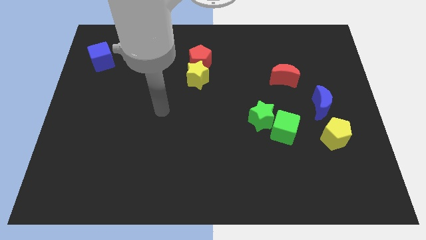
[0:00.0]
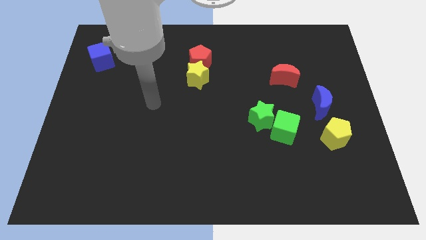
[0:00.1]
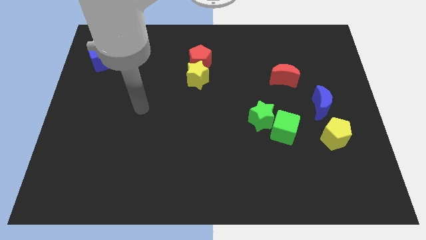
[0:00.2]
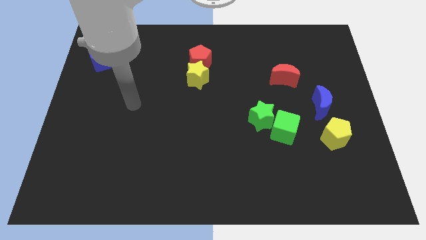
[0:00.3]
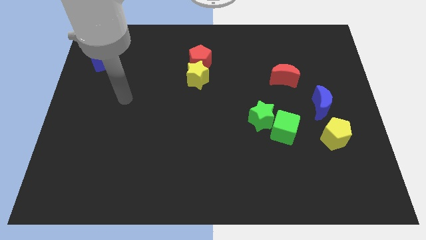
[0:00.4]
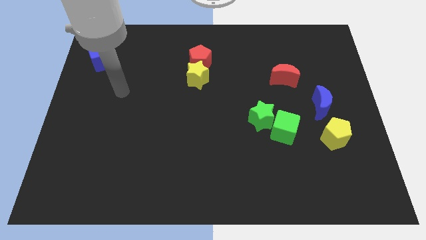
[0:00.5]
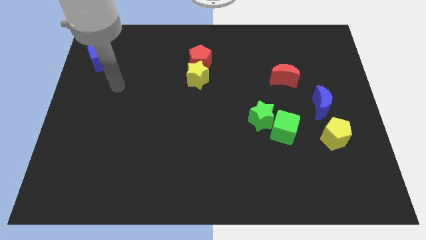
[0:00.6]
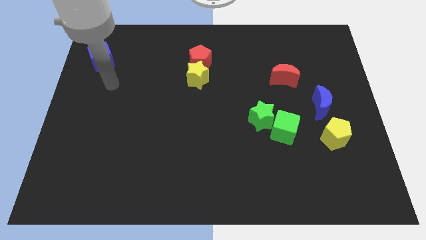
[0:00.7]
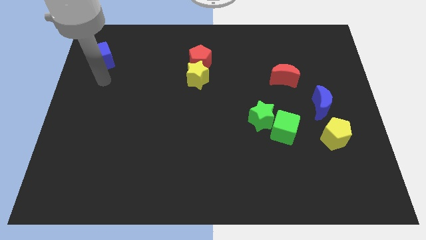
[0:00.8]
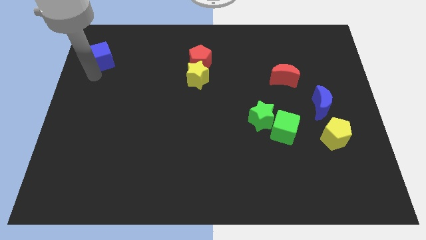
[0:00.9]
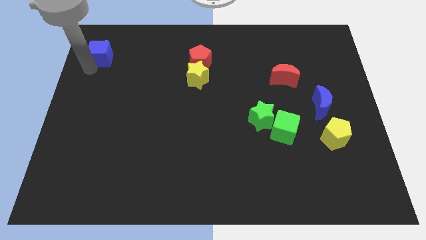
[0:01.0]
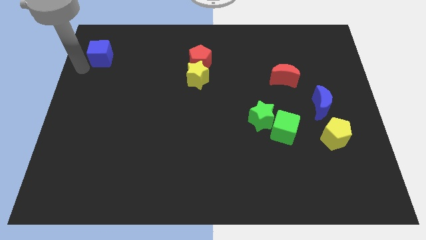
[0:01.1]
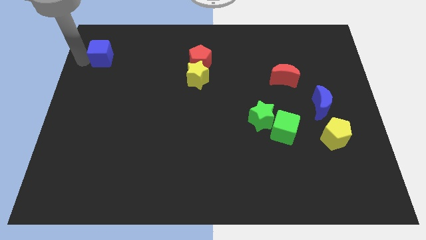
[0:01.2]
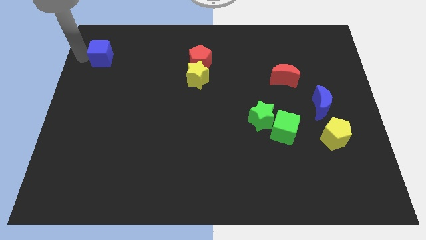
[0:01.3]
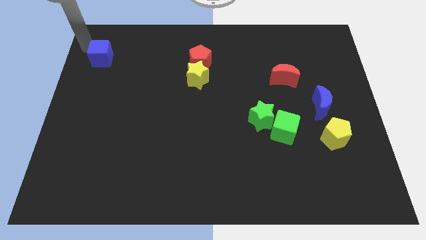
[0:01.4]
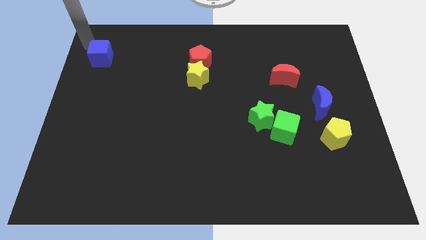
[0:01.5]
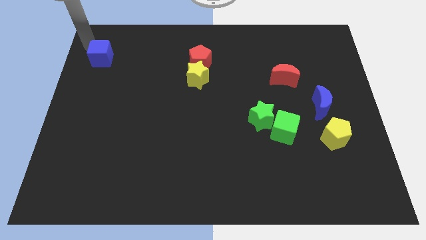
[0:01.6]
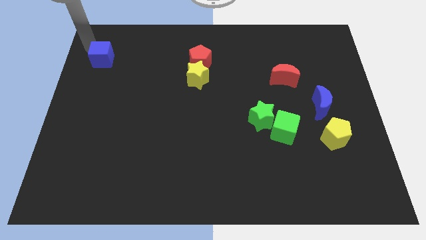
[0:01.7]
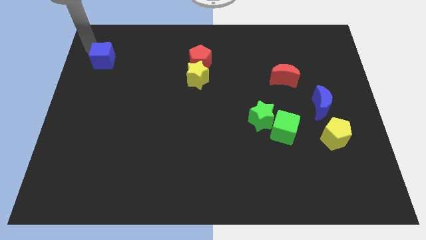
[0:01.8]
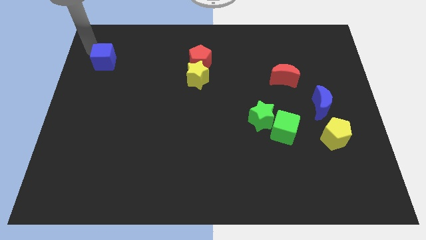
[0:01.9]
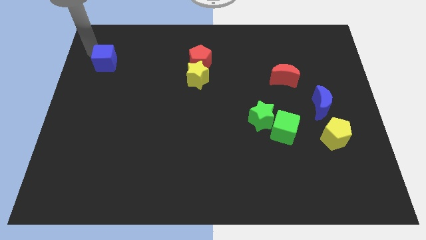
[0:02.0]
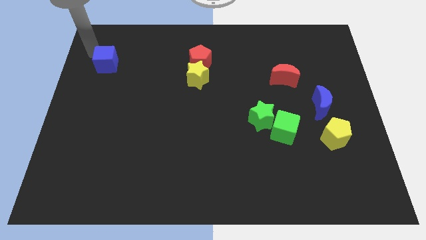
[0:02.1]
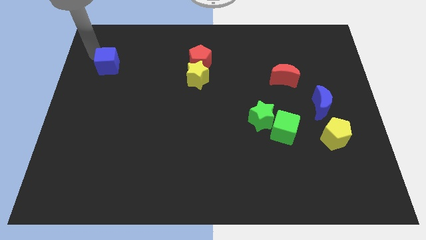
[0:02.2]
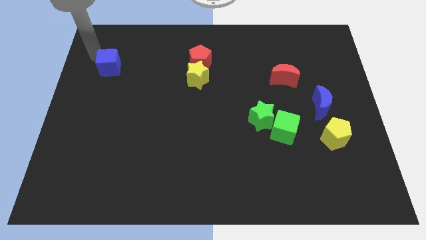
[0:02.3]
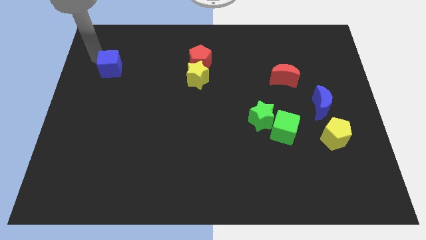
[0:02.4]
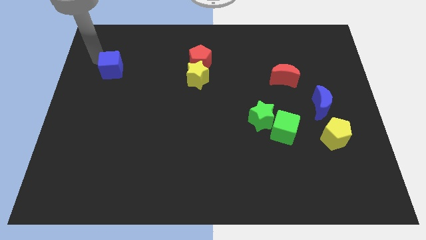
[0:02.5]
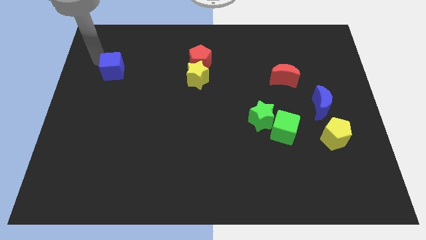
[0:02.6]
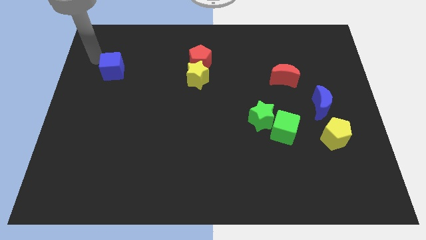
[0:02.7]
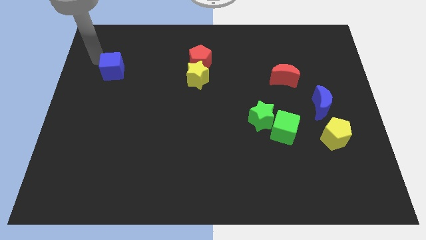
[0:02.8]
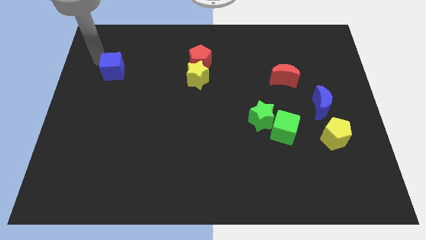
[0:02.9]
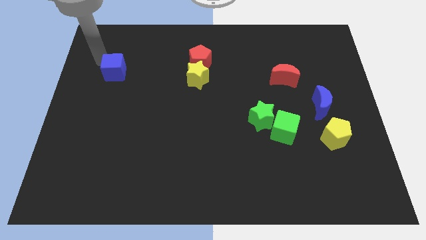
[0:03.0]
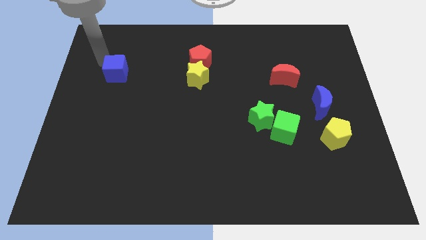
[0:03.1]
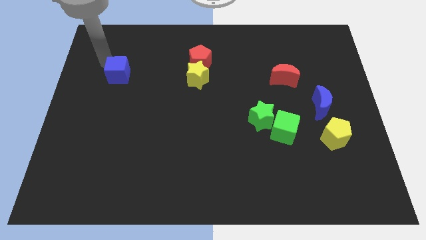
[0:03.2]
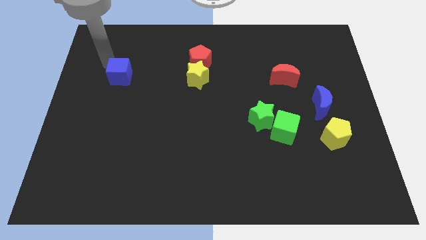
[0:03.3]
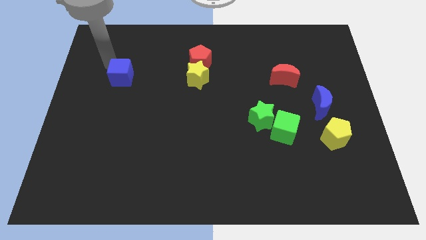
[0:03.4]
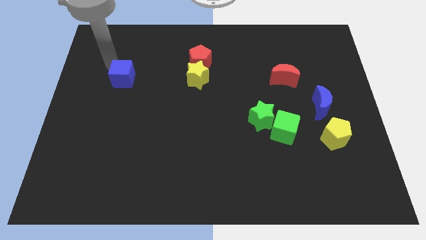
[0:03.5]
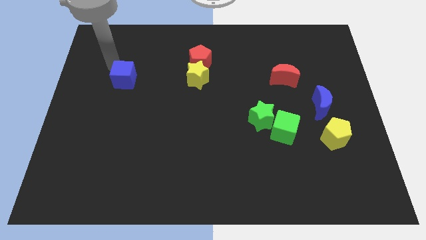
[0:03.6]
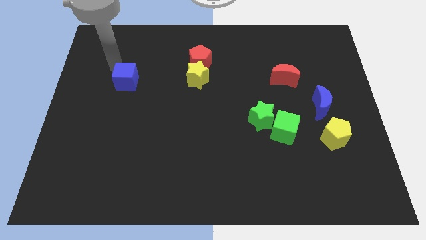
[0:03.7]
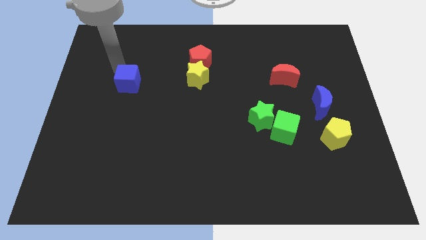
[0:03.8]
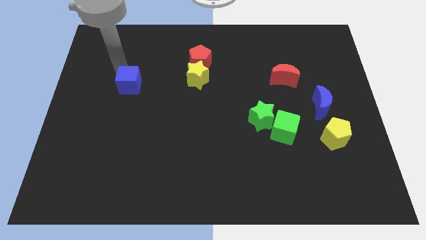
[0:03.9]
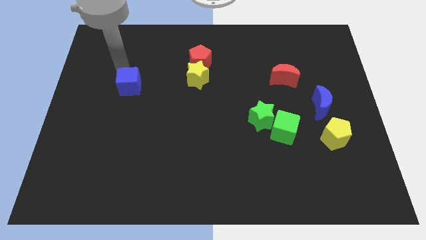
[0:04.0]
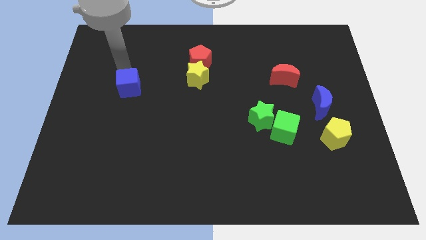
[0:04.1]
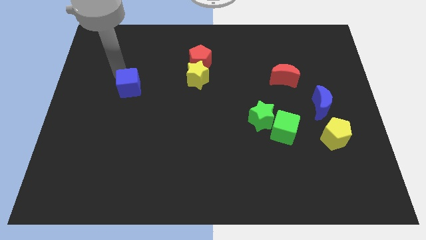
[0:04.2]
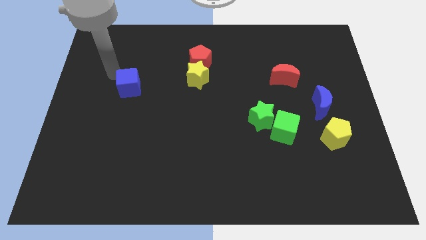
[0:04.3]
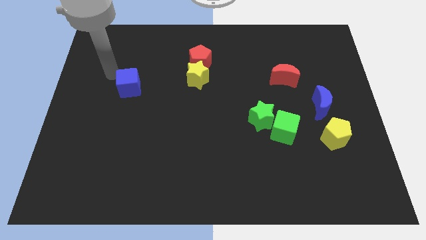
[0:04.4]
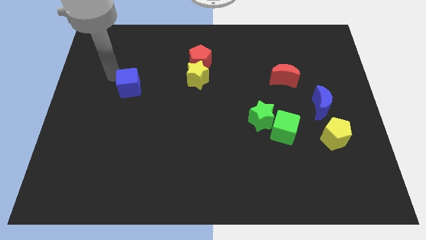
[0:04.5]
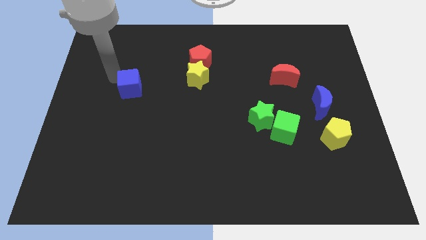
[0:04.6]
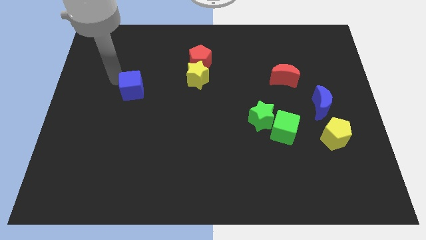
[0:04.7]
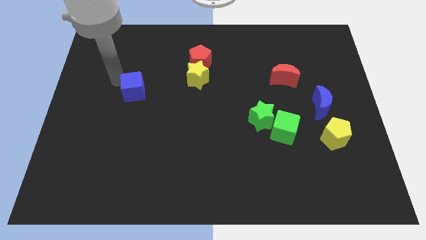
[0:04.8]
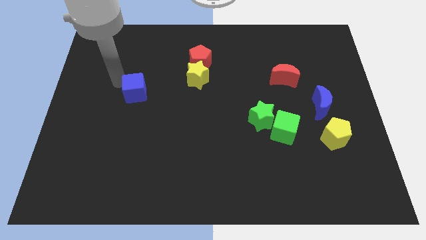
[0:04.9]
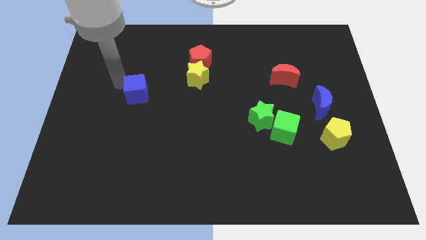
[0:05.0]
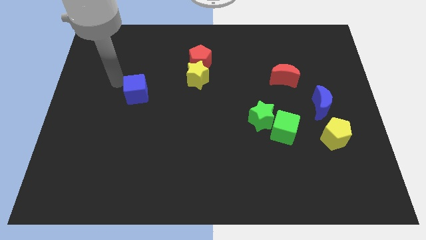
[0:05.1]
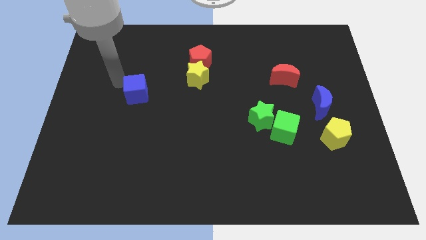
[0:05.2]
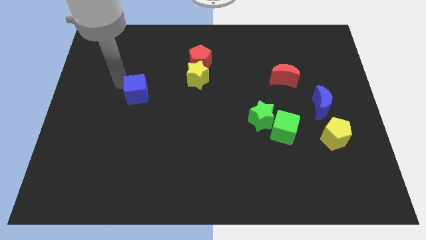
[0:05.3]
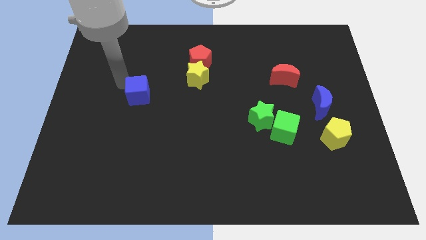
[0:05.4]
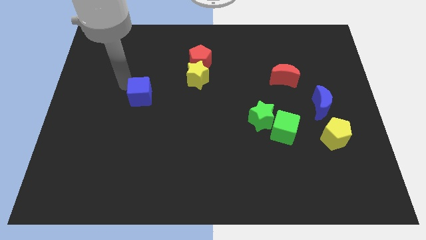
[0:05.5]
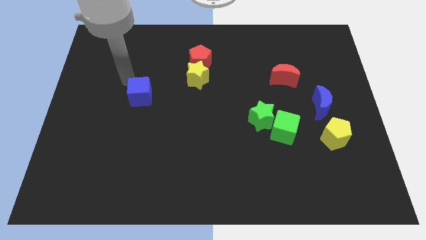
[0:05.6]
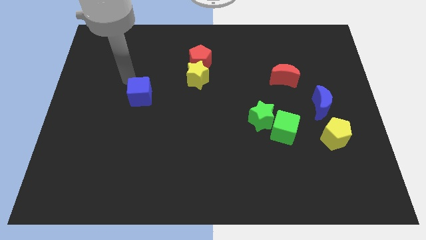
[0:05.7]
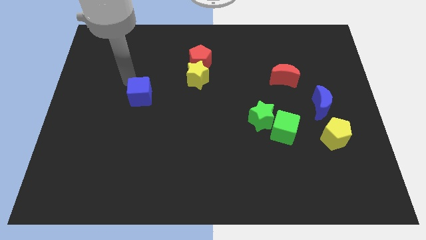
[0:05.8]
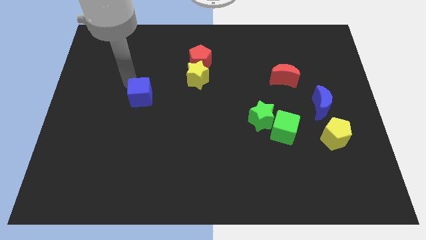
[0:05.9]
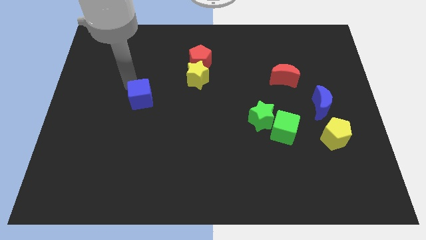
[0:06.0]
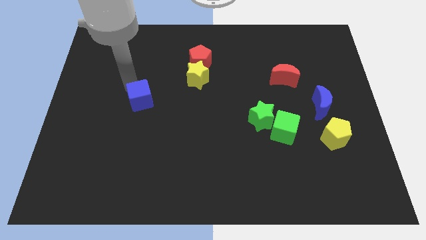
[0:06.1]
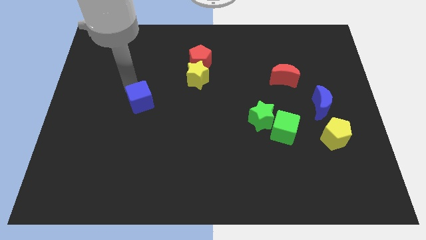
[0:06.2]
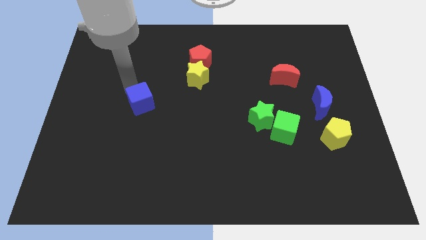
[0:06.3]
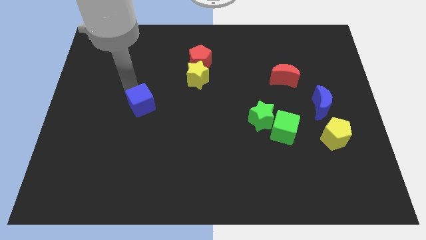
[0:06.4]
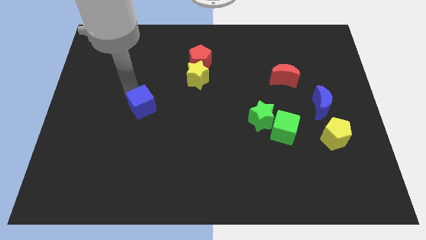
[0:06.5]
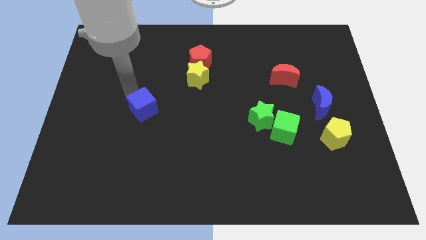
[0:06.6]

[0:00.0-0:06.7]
move the blue cube down and right

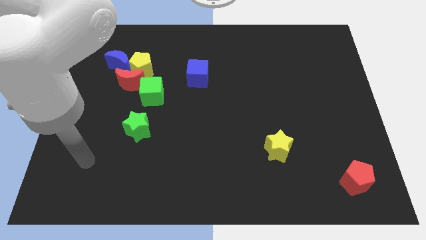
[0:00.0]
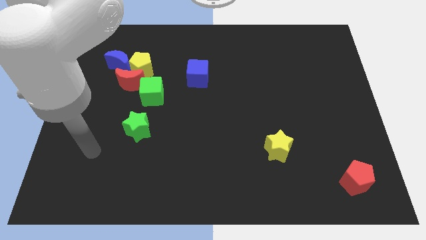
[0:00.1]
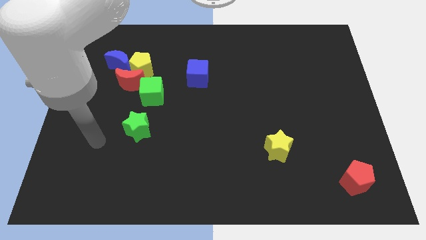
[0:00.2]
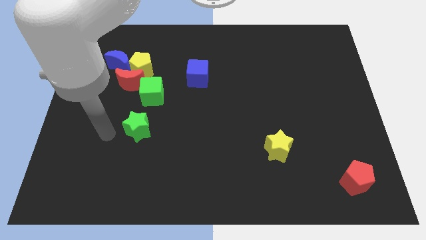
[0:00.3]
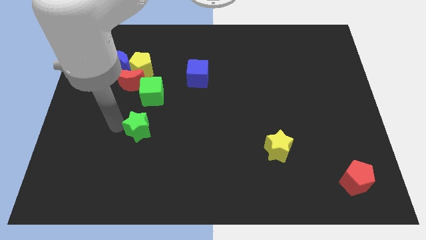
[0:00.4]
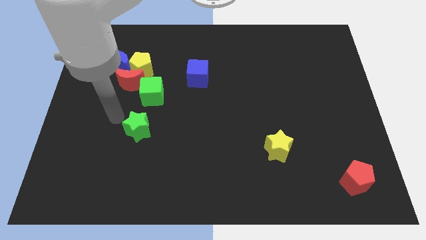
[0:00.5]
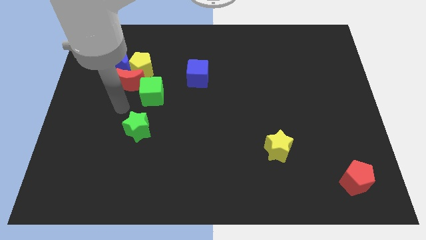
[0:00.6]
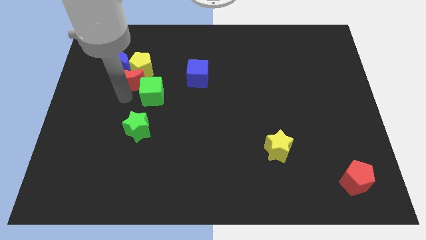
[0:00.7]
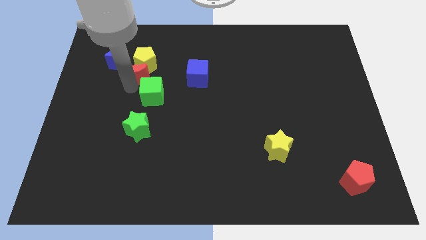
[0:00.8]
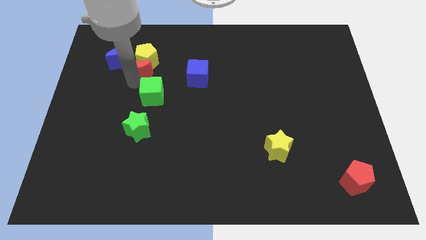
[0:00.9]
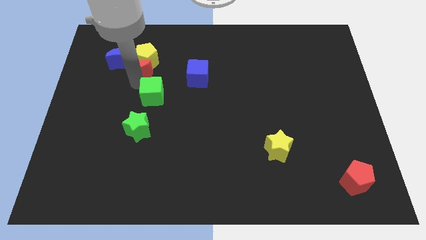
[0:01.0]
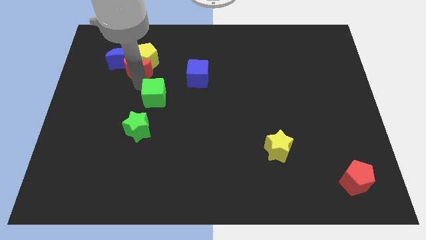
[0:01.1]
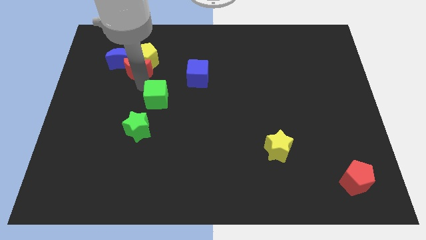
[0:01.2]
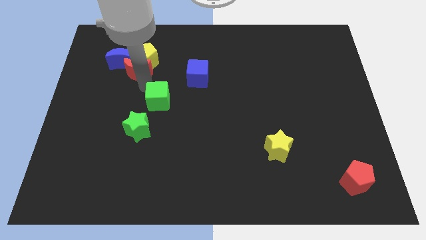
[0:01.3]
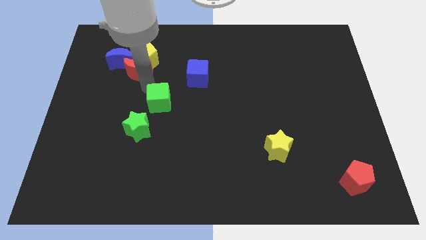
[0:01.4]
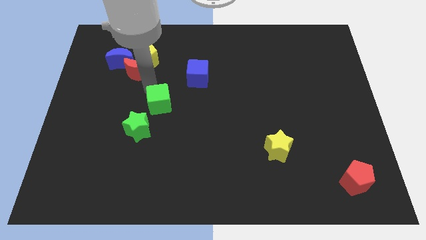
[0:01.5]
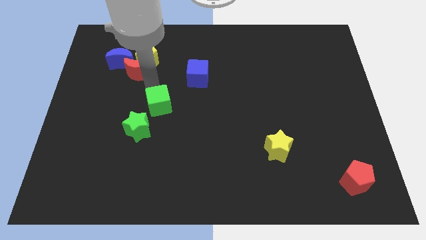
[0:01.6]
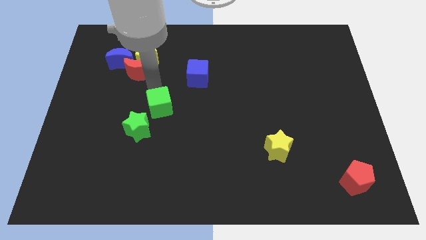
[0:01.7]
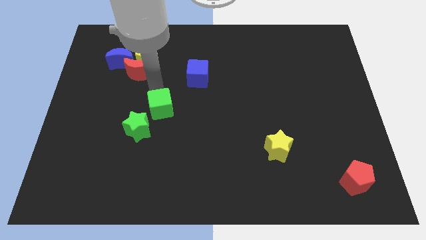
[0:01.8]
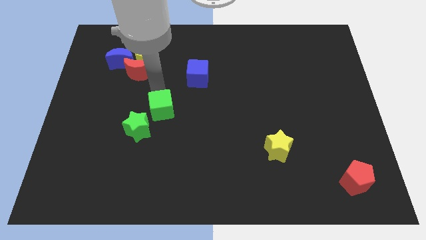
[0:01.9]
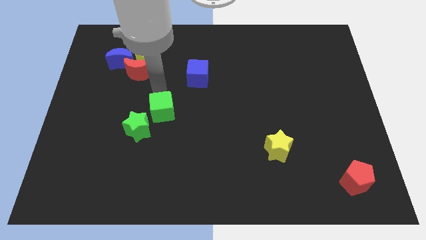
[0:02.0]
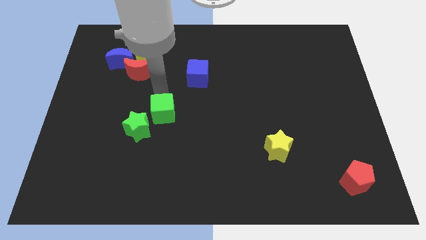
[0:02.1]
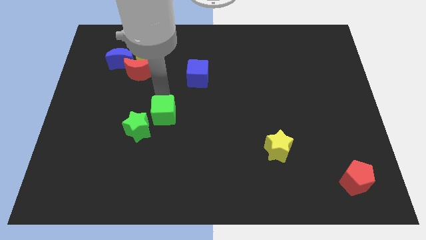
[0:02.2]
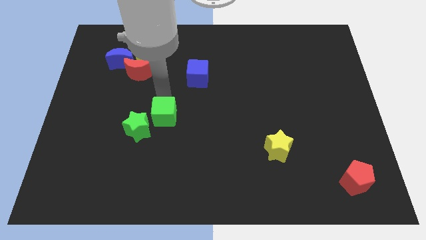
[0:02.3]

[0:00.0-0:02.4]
move the green cube somewhat down and right diagonally
